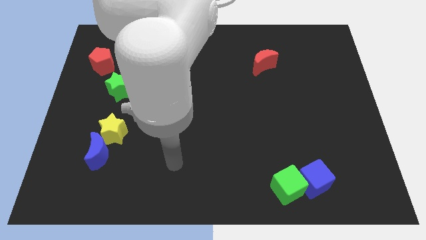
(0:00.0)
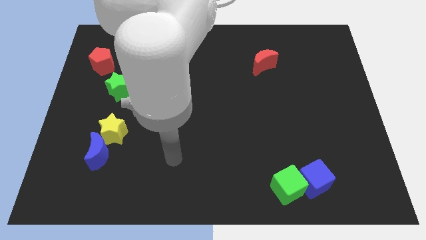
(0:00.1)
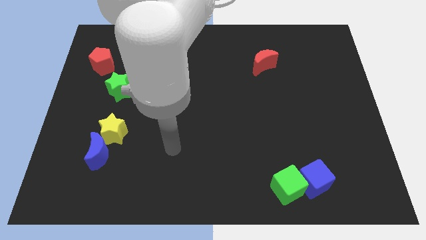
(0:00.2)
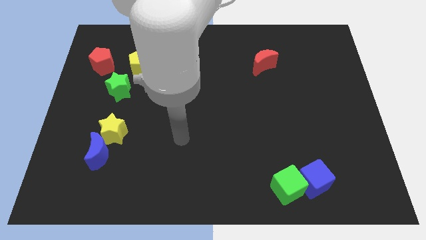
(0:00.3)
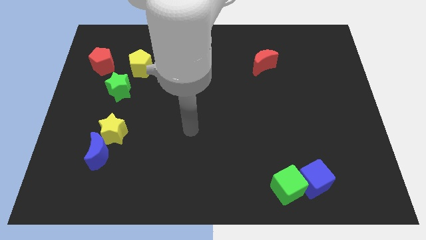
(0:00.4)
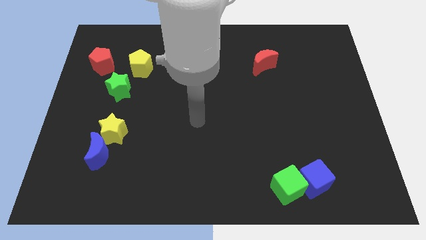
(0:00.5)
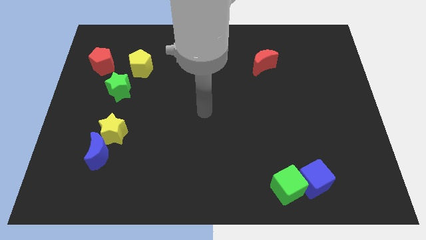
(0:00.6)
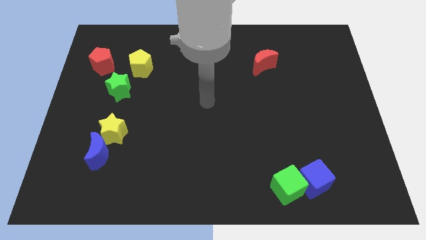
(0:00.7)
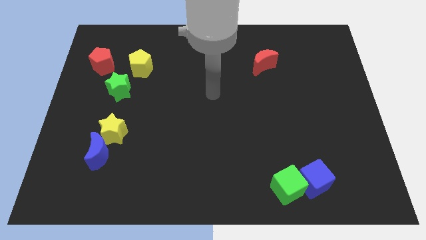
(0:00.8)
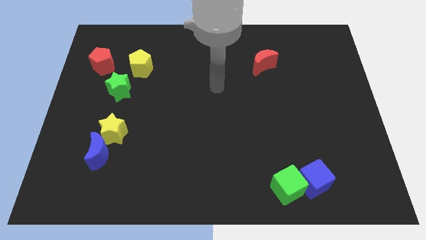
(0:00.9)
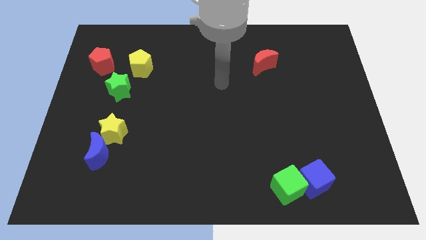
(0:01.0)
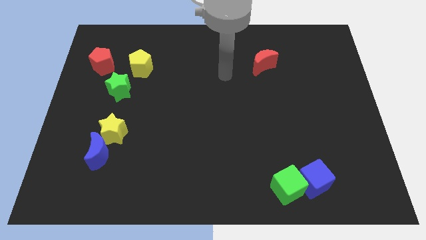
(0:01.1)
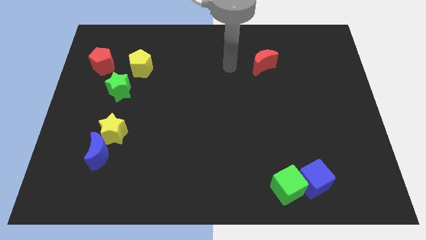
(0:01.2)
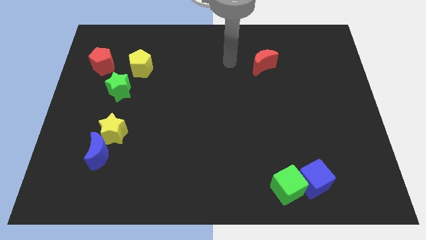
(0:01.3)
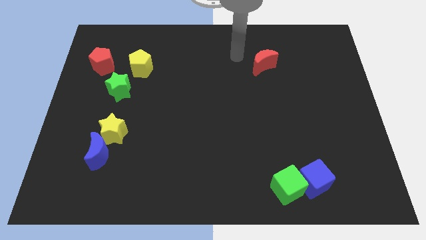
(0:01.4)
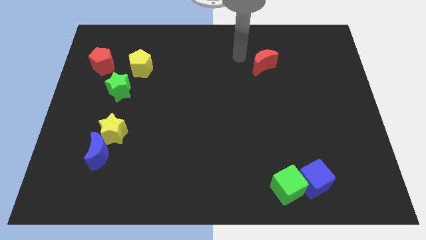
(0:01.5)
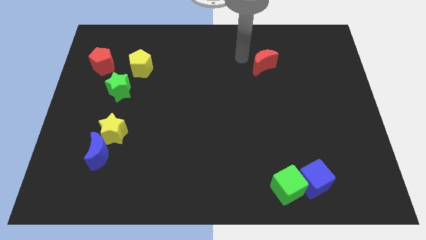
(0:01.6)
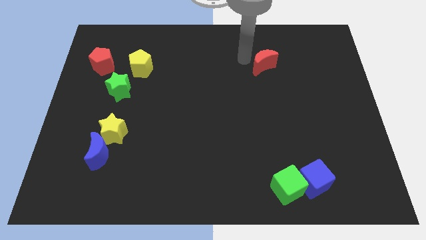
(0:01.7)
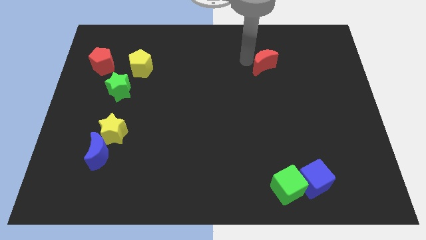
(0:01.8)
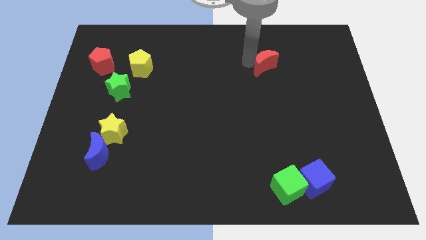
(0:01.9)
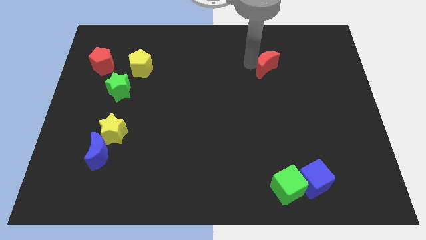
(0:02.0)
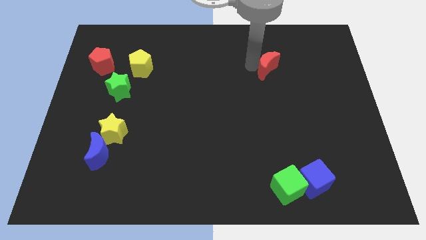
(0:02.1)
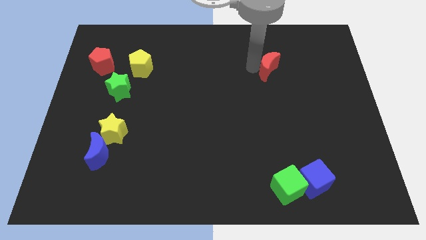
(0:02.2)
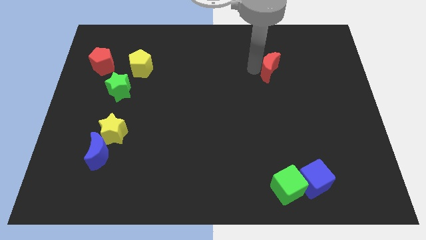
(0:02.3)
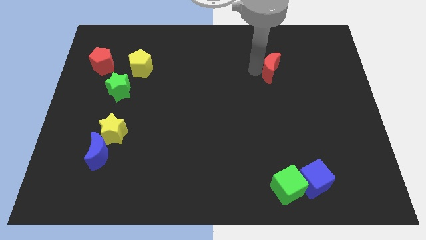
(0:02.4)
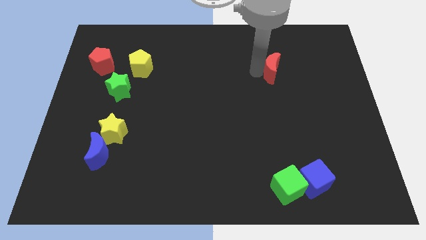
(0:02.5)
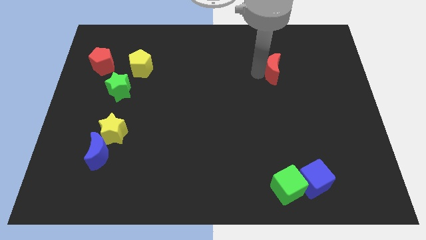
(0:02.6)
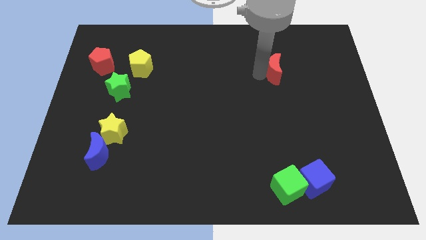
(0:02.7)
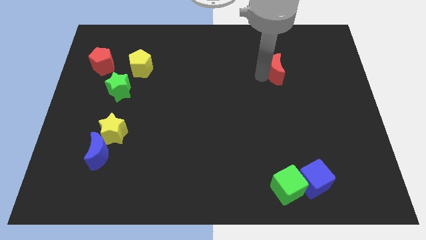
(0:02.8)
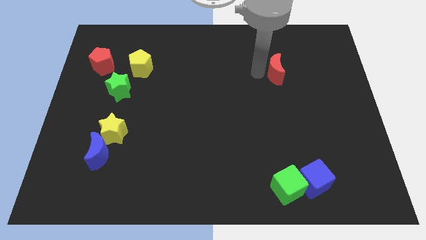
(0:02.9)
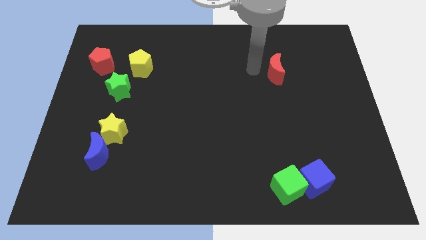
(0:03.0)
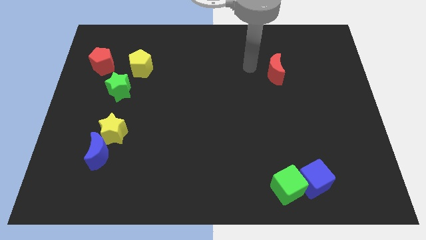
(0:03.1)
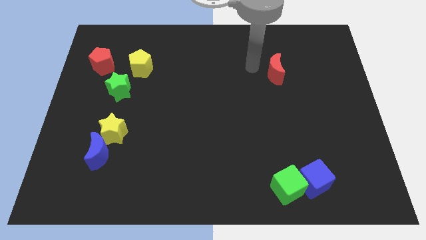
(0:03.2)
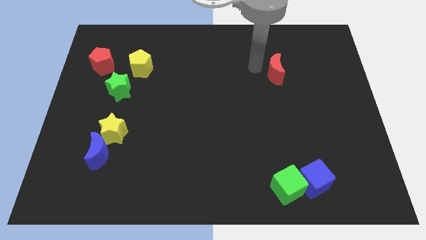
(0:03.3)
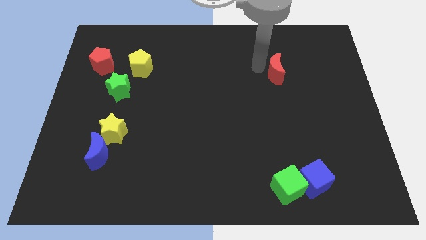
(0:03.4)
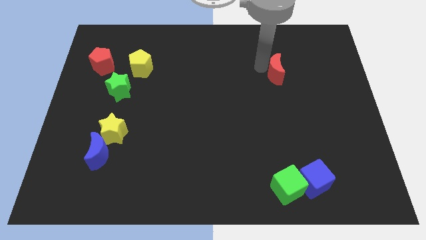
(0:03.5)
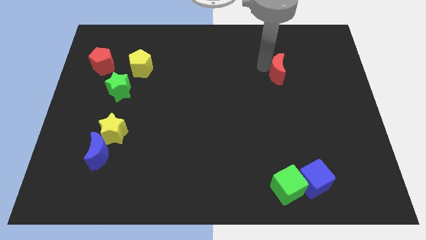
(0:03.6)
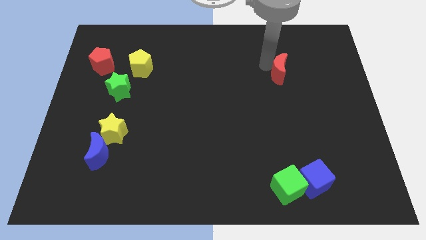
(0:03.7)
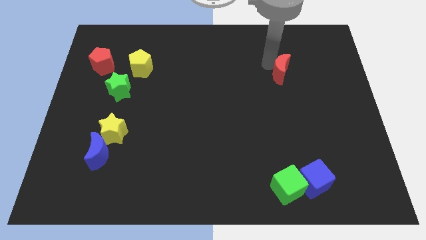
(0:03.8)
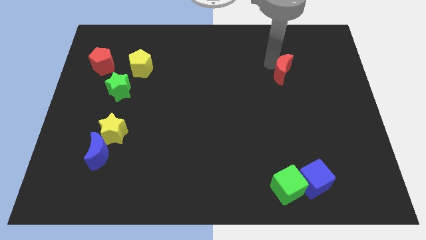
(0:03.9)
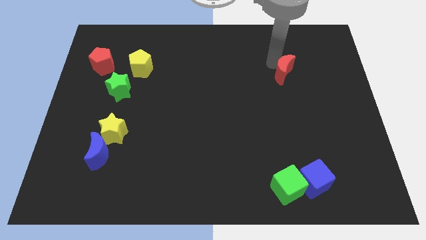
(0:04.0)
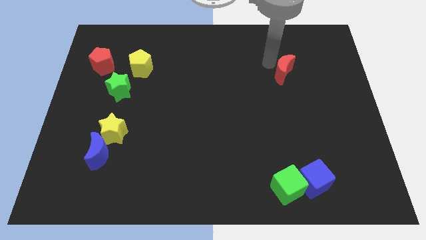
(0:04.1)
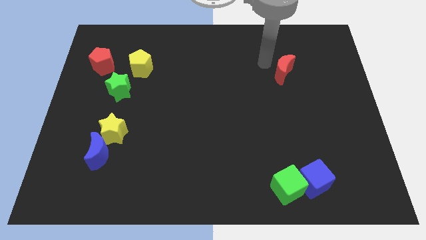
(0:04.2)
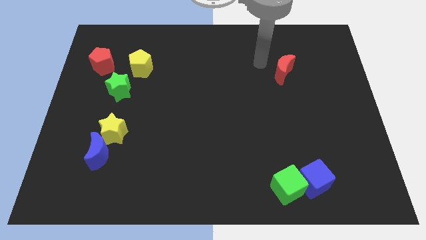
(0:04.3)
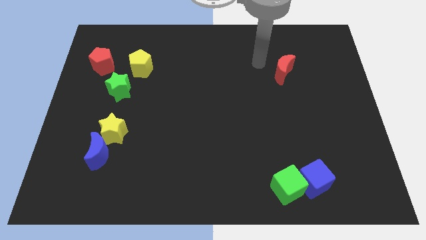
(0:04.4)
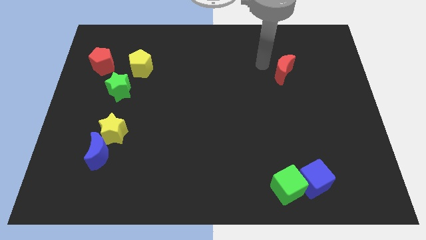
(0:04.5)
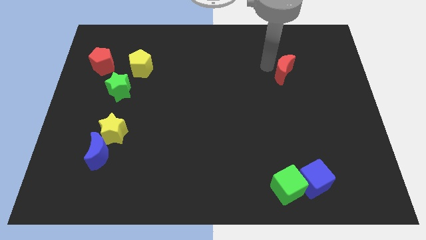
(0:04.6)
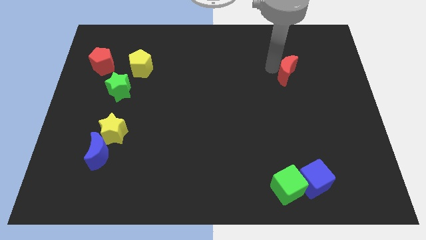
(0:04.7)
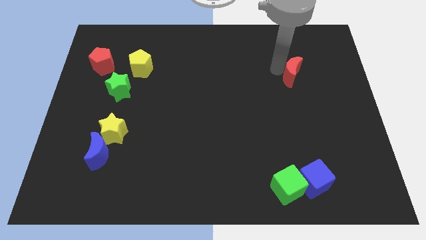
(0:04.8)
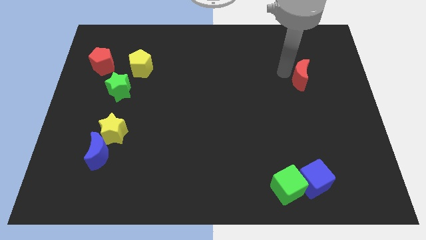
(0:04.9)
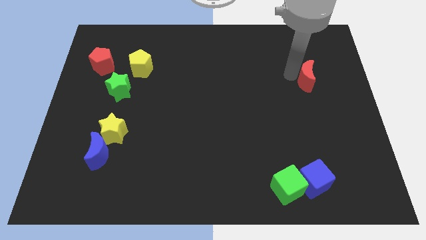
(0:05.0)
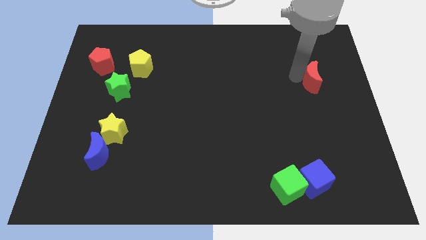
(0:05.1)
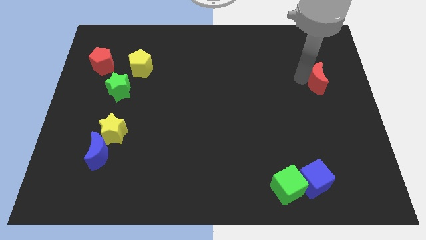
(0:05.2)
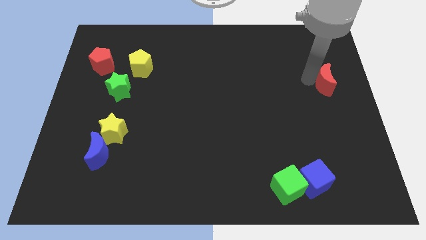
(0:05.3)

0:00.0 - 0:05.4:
put the red moon to the right side of the board
